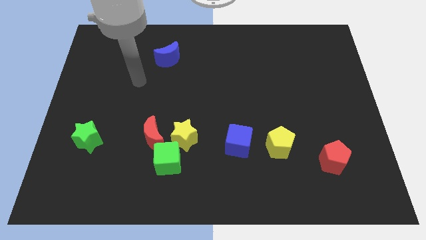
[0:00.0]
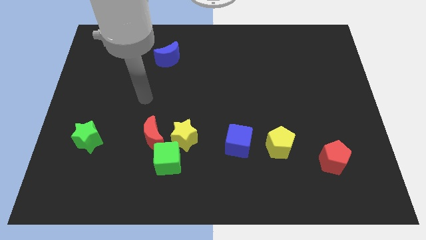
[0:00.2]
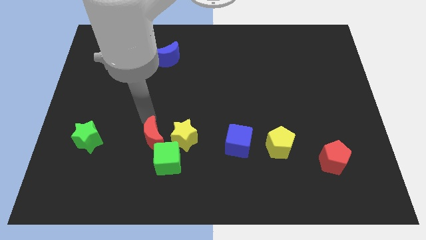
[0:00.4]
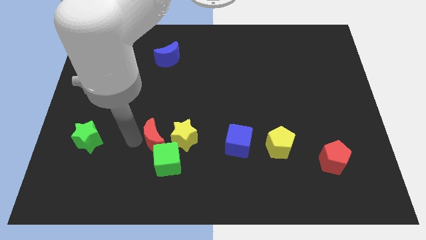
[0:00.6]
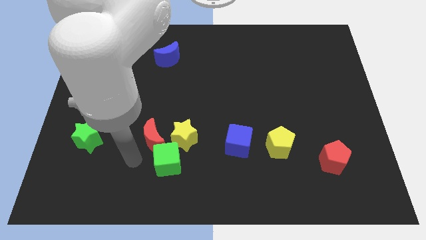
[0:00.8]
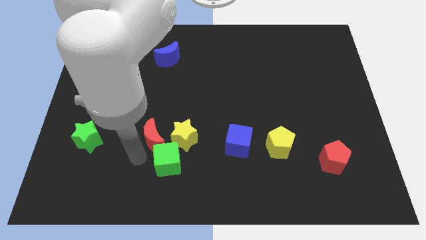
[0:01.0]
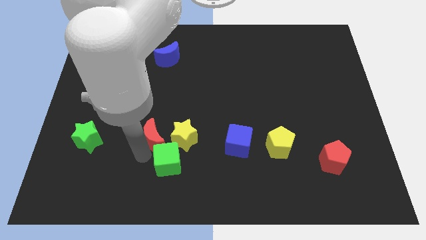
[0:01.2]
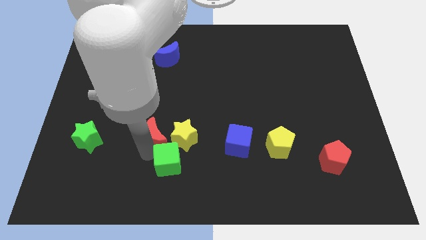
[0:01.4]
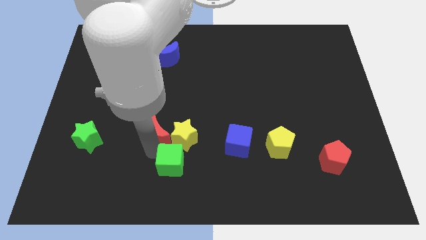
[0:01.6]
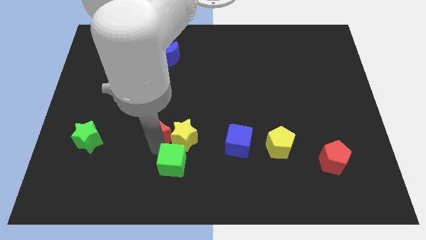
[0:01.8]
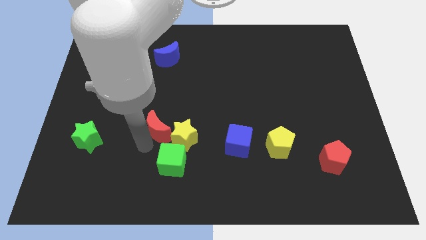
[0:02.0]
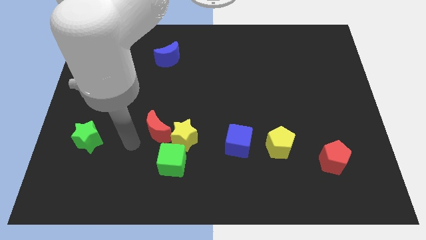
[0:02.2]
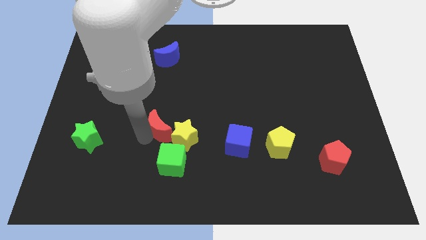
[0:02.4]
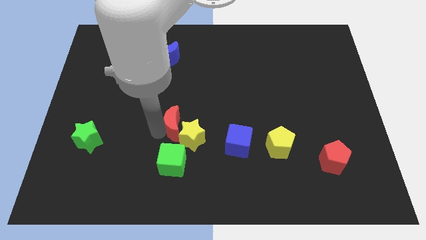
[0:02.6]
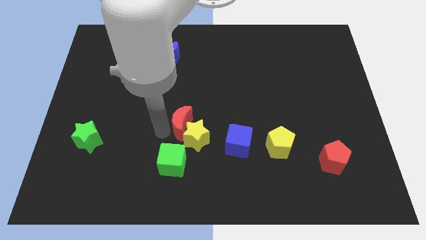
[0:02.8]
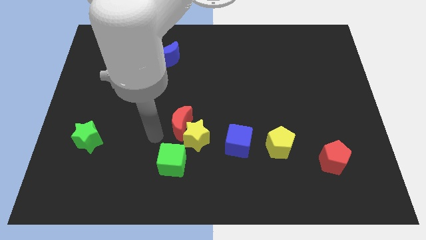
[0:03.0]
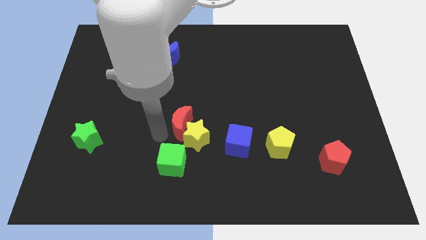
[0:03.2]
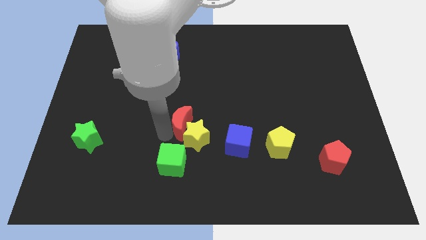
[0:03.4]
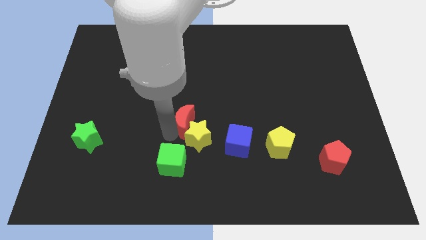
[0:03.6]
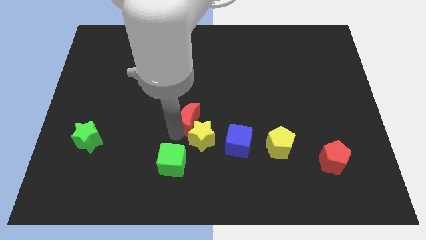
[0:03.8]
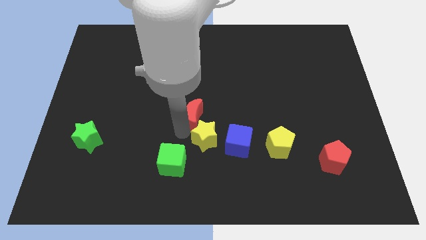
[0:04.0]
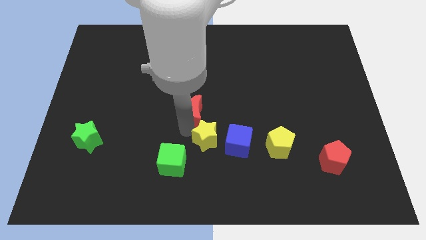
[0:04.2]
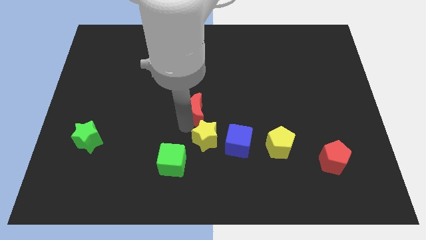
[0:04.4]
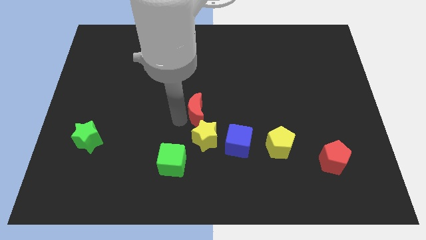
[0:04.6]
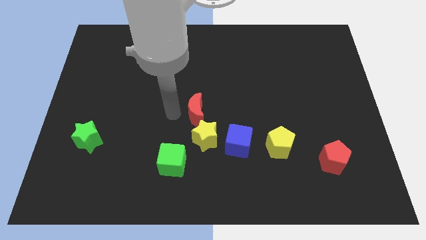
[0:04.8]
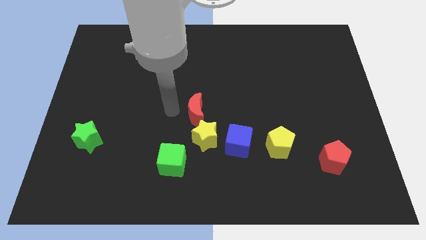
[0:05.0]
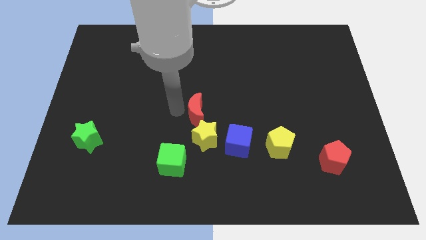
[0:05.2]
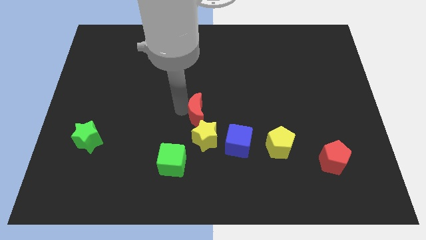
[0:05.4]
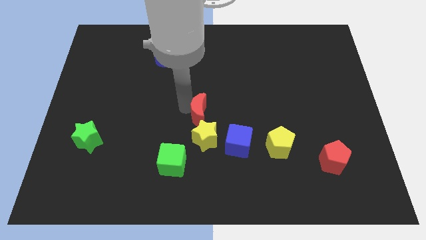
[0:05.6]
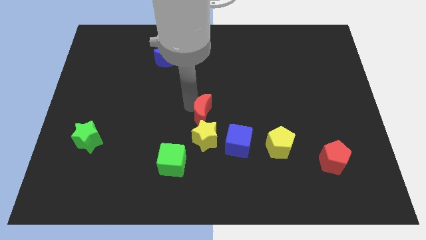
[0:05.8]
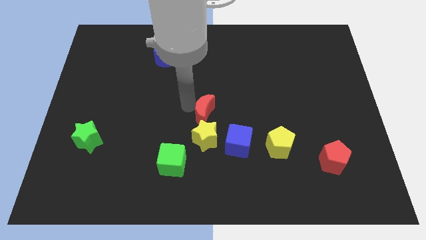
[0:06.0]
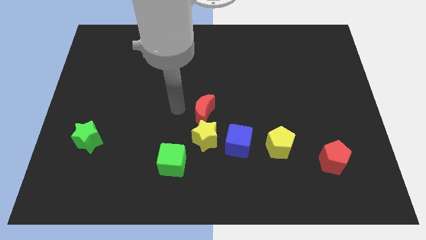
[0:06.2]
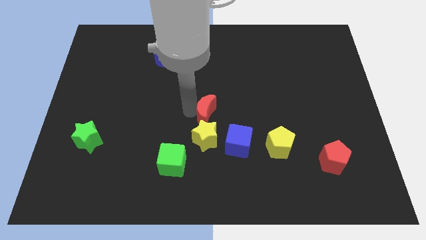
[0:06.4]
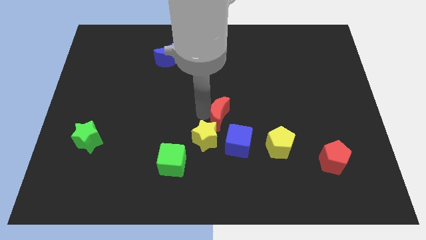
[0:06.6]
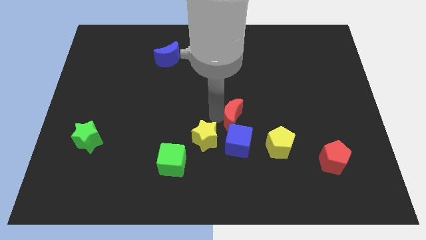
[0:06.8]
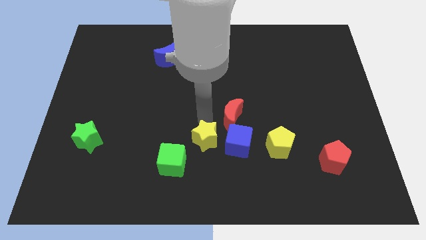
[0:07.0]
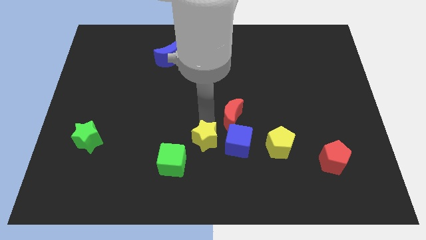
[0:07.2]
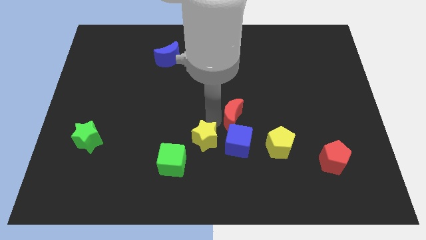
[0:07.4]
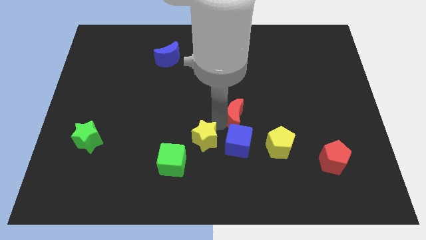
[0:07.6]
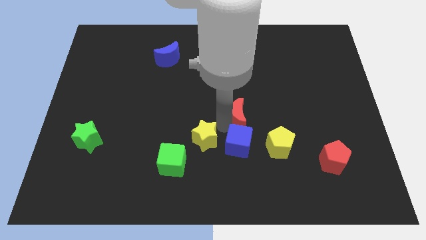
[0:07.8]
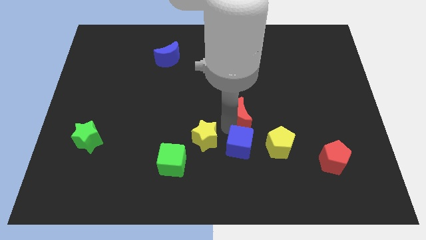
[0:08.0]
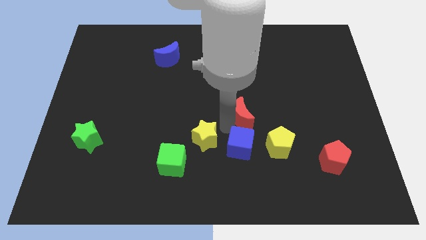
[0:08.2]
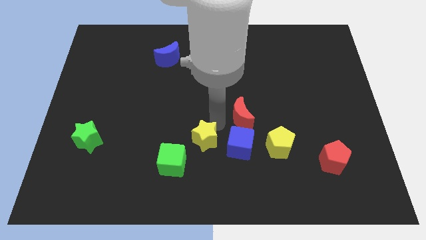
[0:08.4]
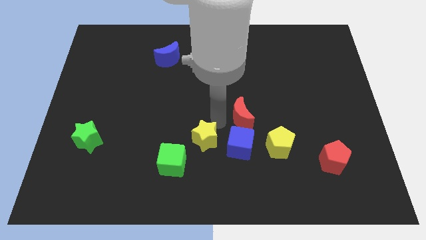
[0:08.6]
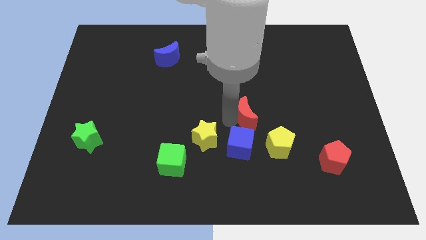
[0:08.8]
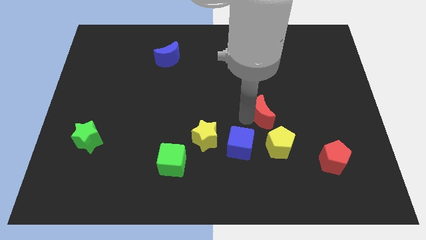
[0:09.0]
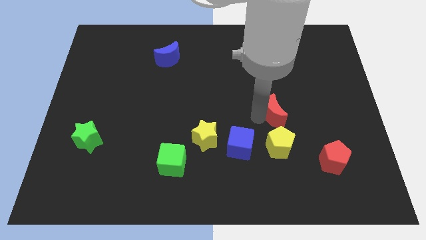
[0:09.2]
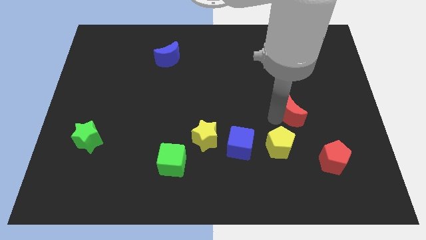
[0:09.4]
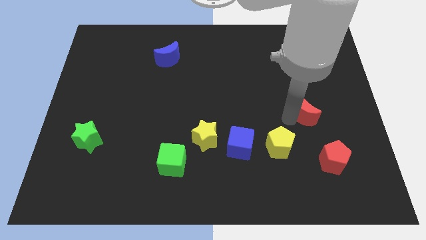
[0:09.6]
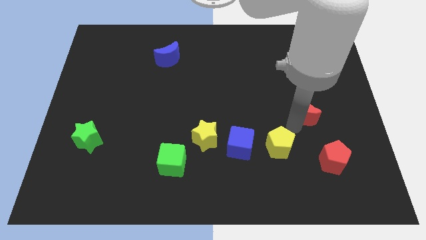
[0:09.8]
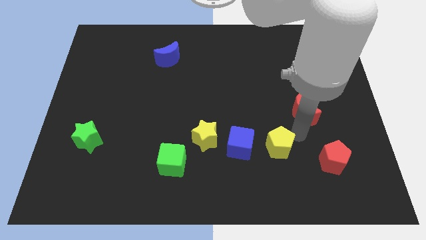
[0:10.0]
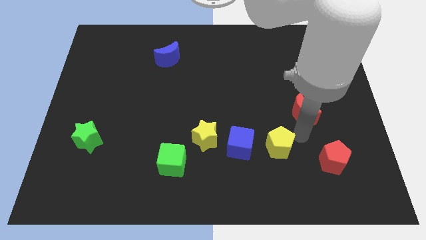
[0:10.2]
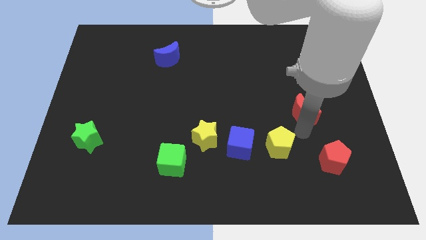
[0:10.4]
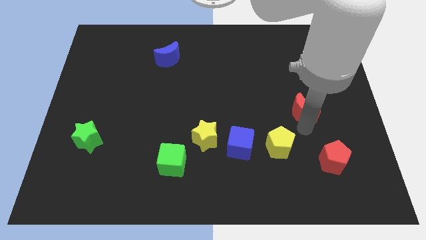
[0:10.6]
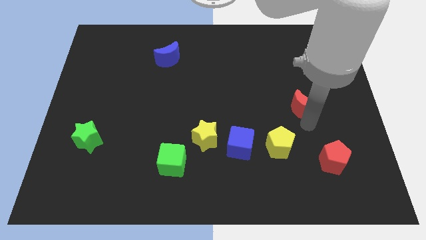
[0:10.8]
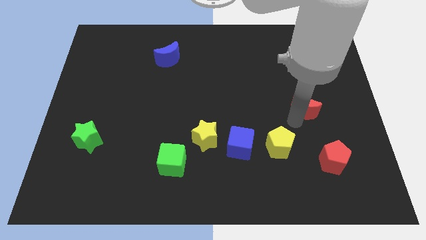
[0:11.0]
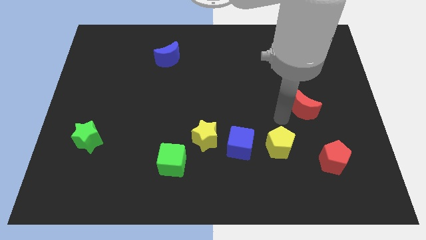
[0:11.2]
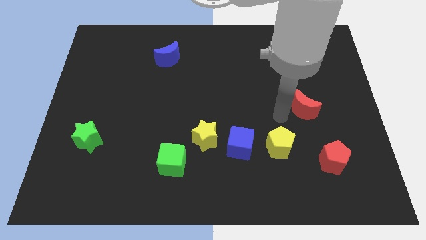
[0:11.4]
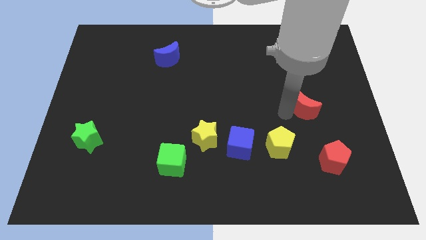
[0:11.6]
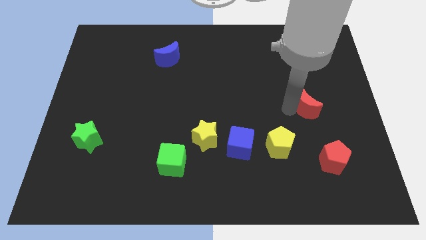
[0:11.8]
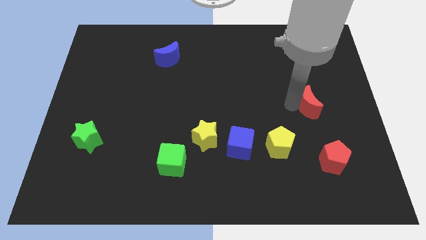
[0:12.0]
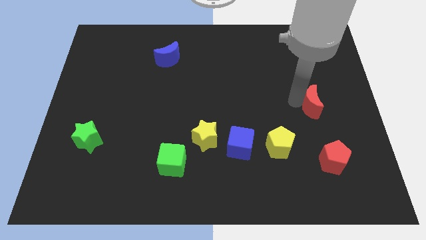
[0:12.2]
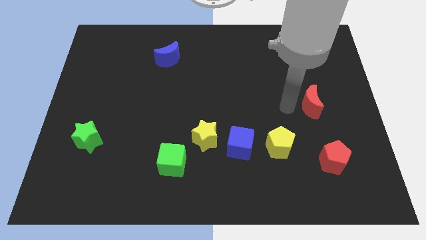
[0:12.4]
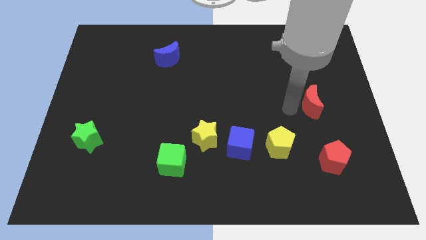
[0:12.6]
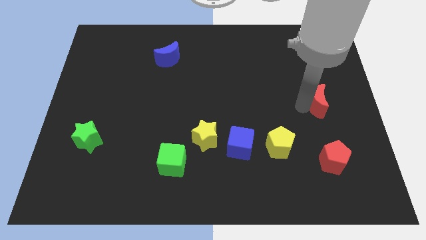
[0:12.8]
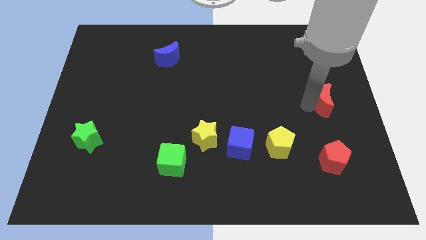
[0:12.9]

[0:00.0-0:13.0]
put the red moon to the center right

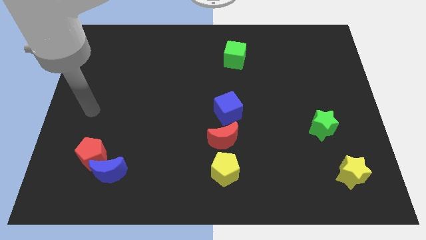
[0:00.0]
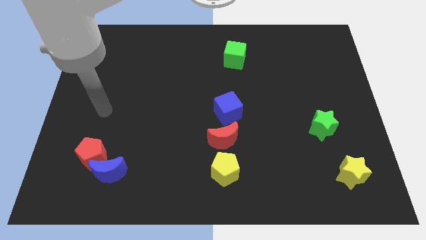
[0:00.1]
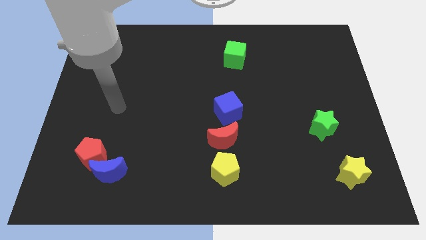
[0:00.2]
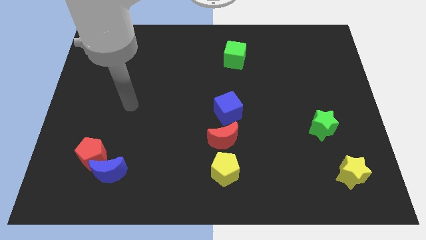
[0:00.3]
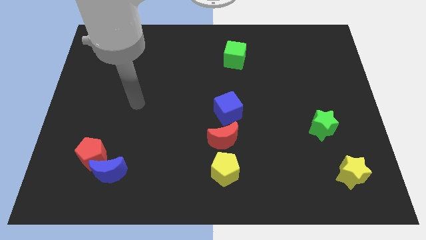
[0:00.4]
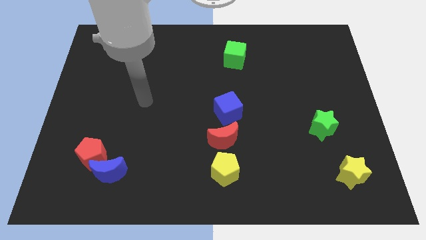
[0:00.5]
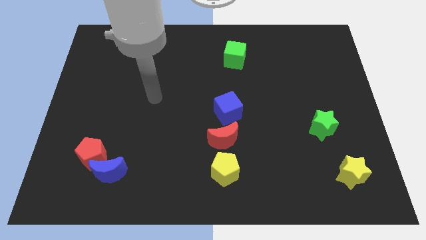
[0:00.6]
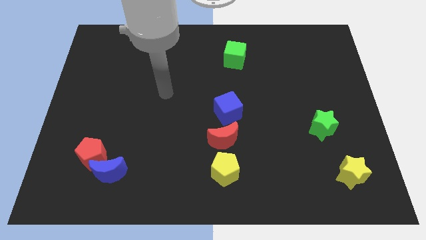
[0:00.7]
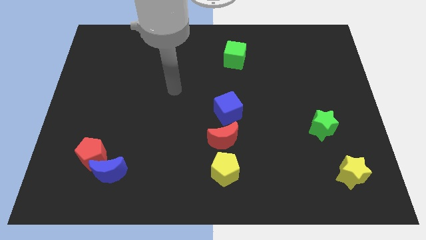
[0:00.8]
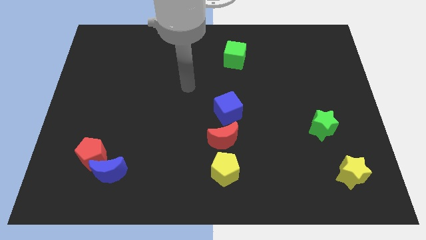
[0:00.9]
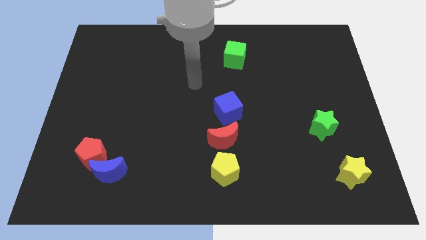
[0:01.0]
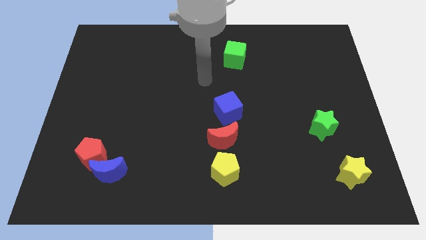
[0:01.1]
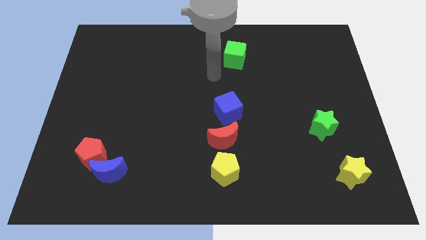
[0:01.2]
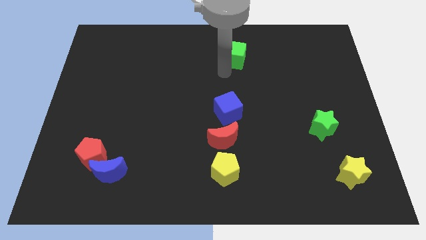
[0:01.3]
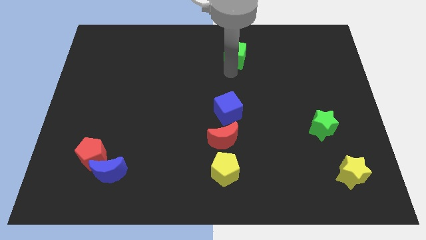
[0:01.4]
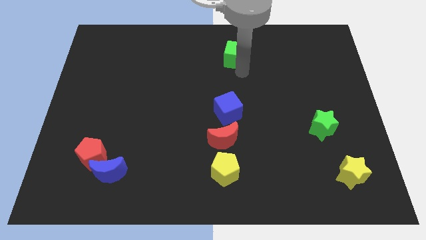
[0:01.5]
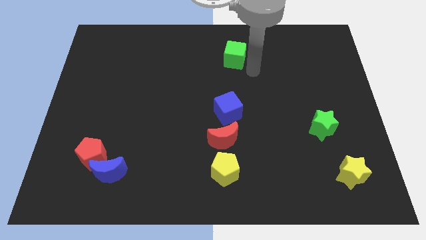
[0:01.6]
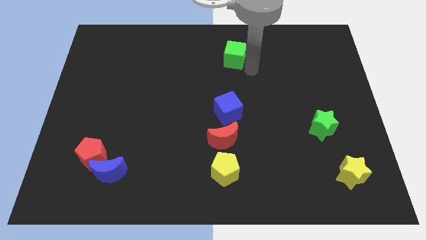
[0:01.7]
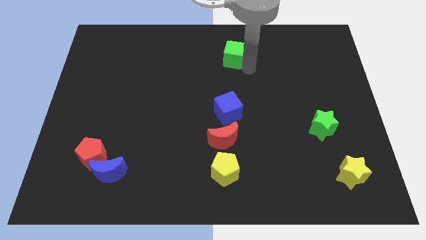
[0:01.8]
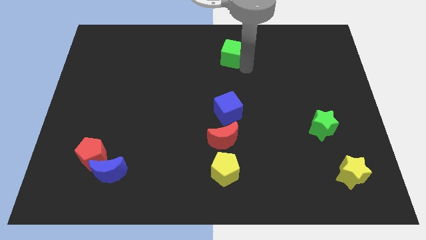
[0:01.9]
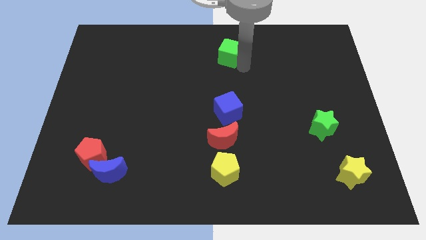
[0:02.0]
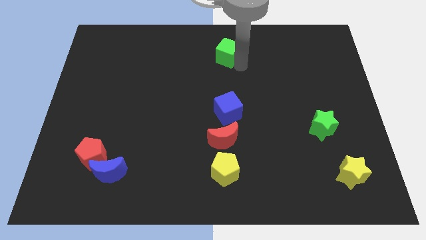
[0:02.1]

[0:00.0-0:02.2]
put the green cube to the top side
